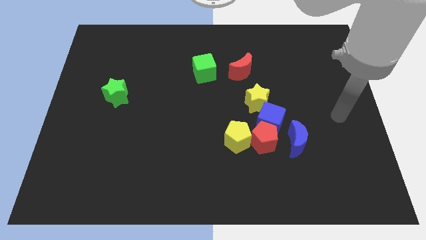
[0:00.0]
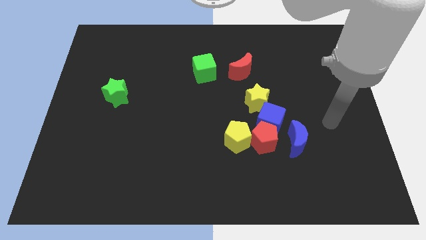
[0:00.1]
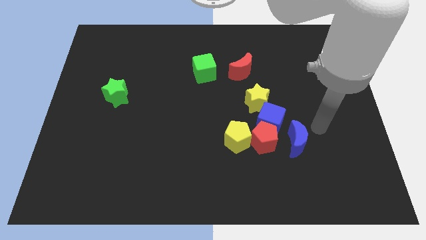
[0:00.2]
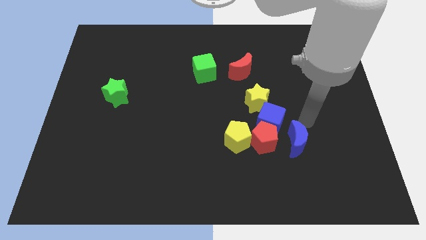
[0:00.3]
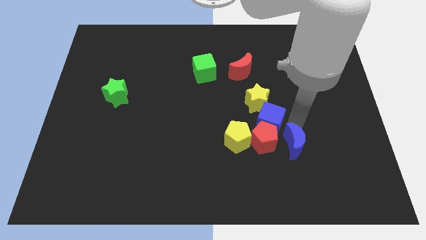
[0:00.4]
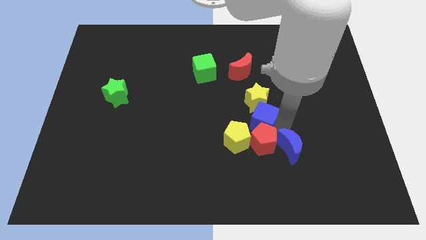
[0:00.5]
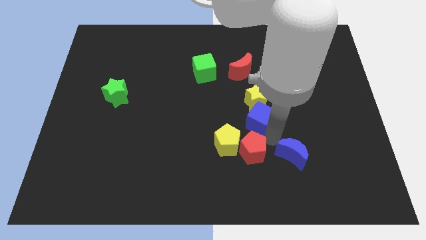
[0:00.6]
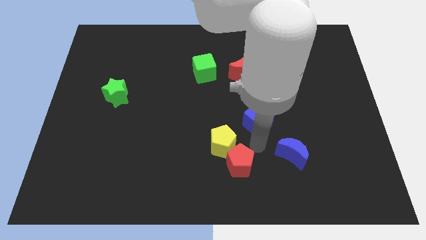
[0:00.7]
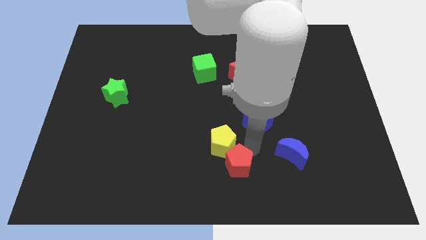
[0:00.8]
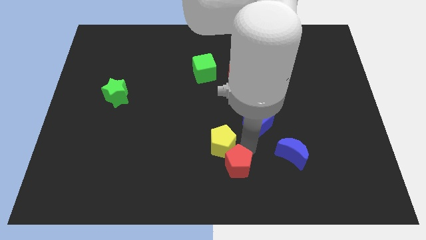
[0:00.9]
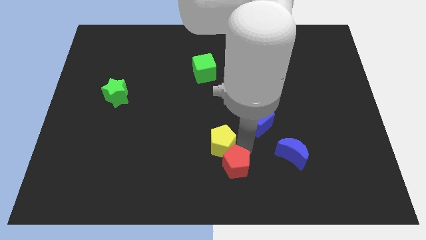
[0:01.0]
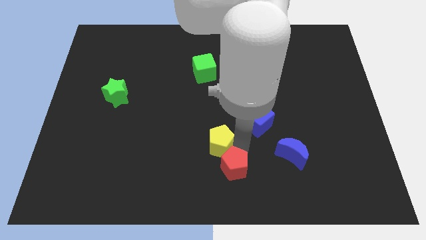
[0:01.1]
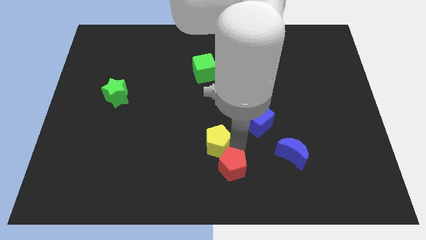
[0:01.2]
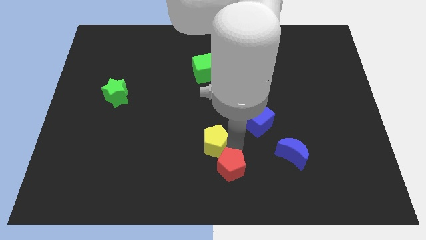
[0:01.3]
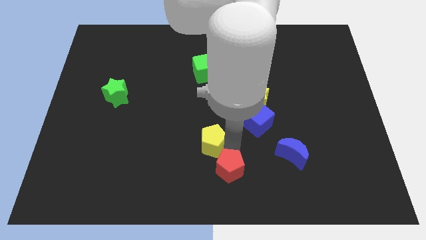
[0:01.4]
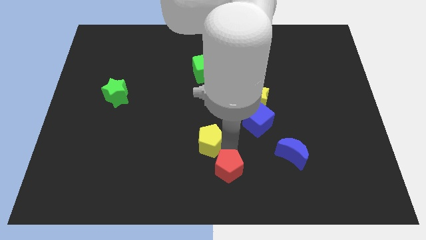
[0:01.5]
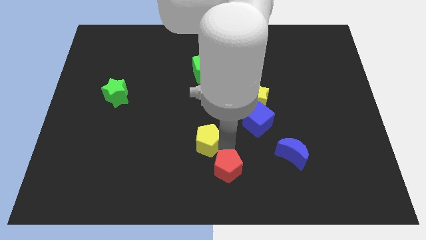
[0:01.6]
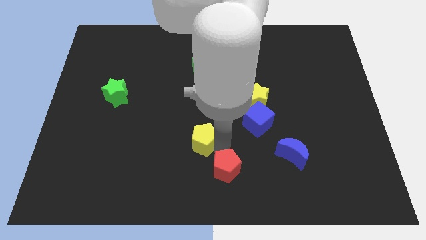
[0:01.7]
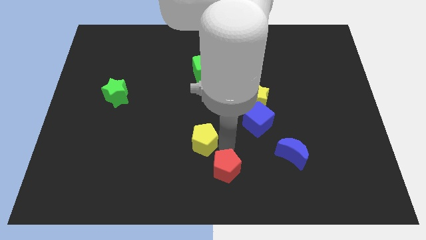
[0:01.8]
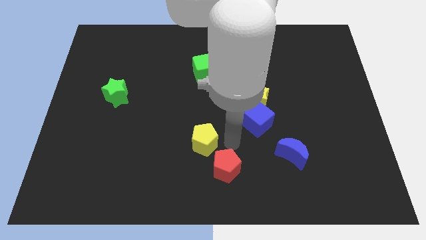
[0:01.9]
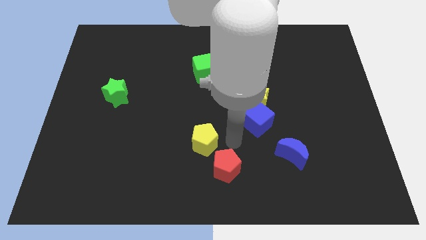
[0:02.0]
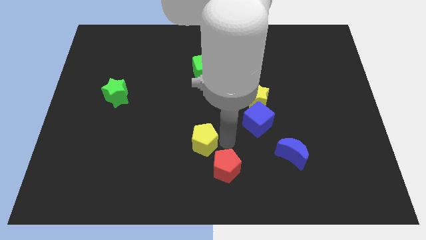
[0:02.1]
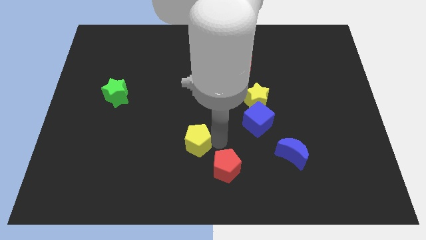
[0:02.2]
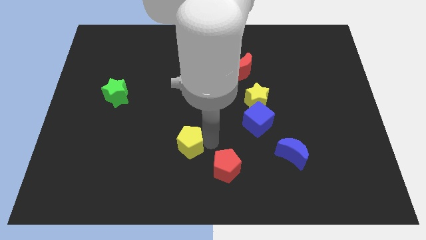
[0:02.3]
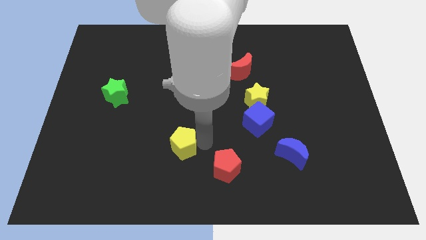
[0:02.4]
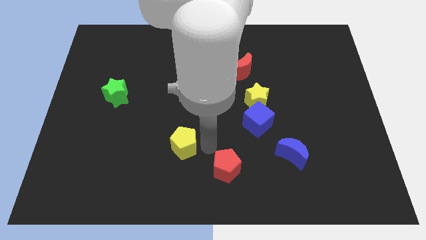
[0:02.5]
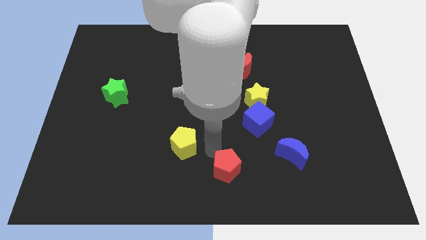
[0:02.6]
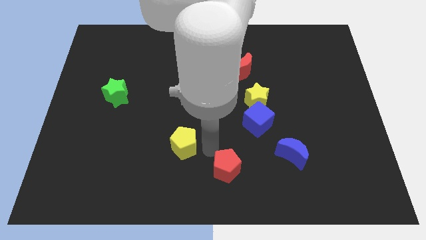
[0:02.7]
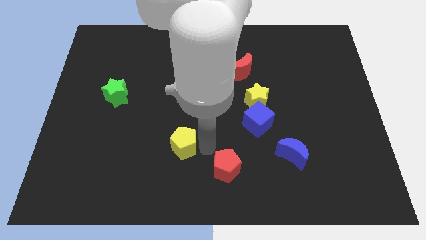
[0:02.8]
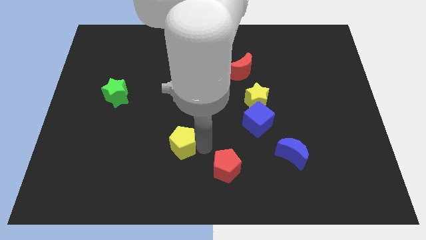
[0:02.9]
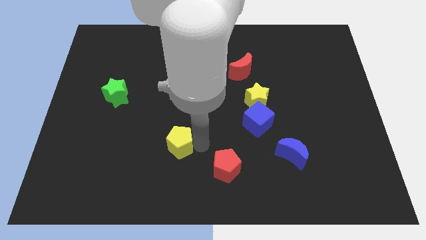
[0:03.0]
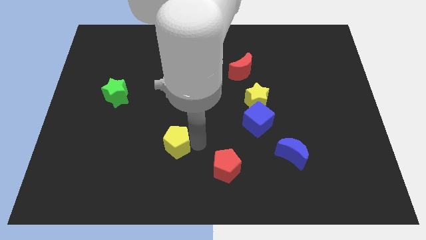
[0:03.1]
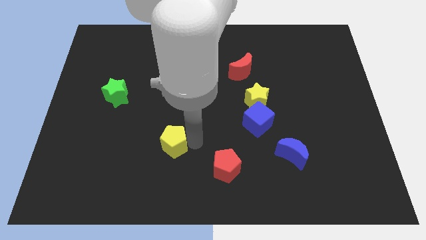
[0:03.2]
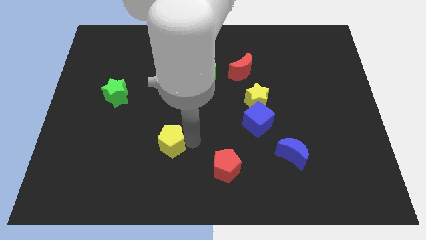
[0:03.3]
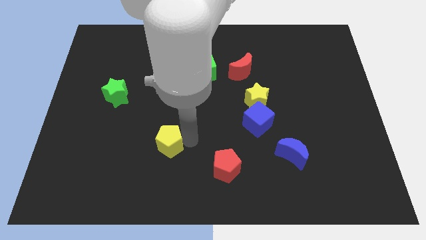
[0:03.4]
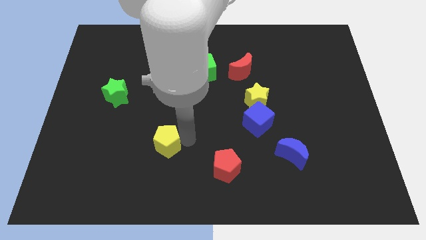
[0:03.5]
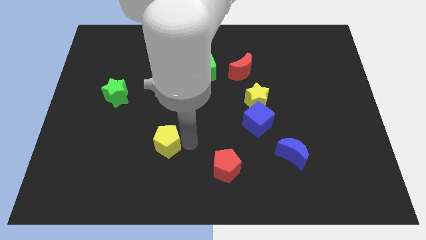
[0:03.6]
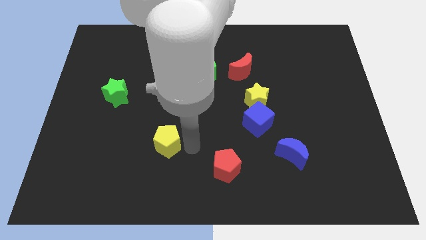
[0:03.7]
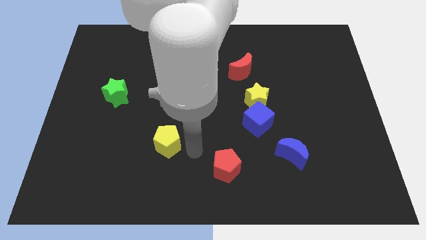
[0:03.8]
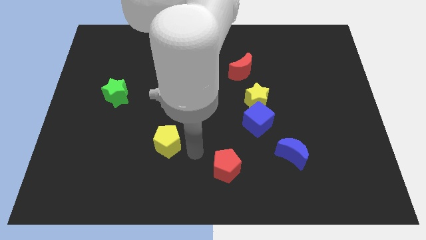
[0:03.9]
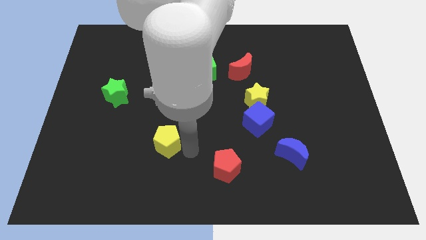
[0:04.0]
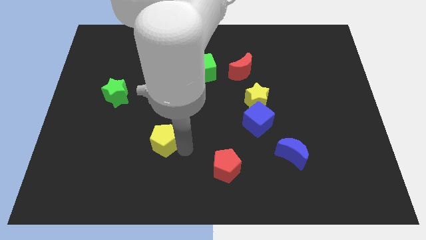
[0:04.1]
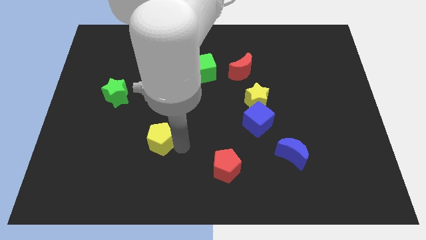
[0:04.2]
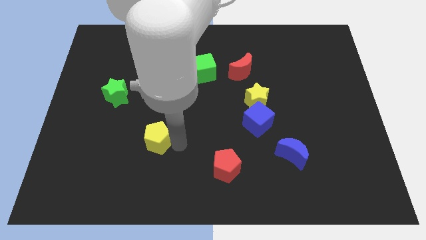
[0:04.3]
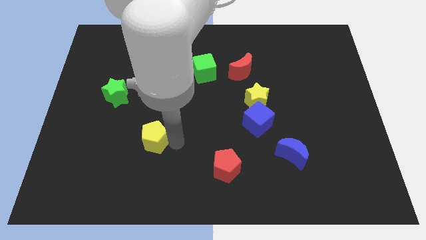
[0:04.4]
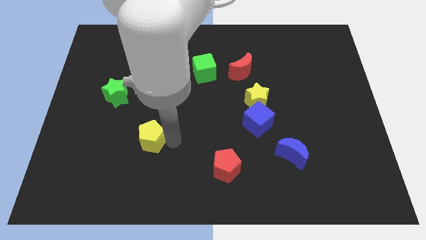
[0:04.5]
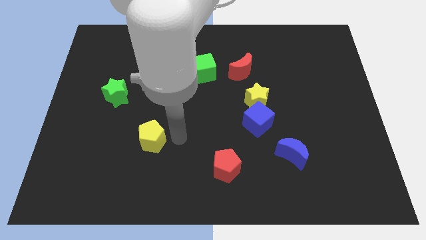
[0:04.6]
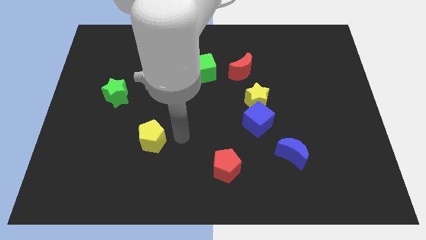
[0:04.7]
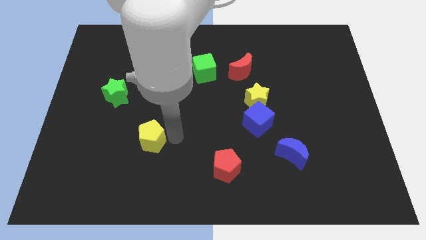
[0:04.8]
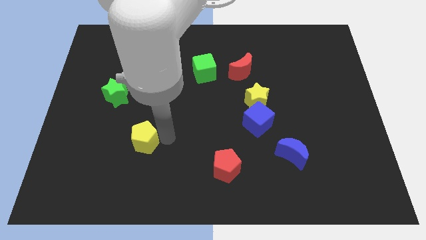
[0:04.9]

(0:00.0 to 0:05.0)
move the yellow pentagon left

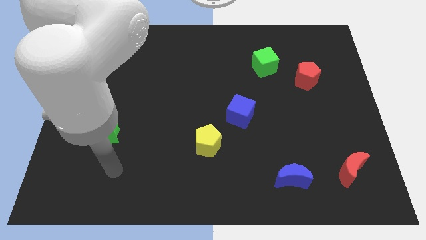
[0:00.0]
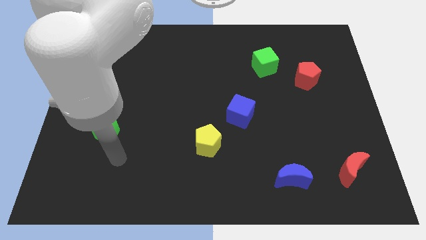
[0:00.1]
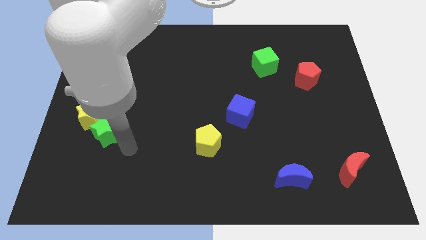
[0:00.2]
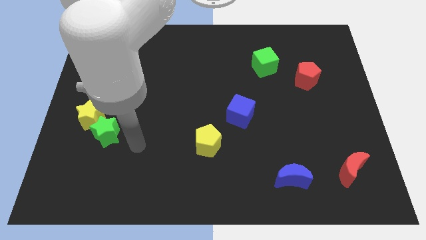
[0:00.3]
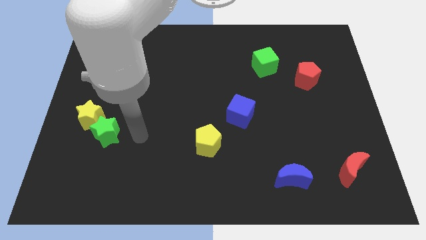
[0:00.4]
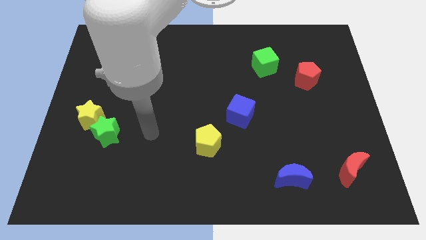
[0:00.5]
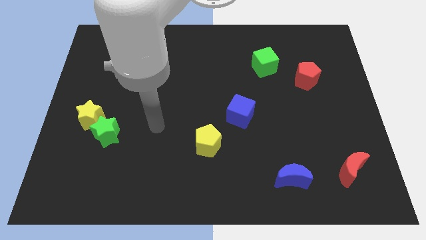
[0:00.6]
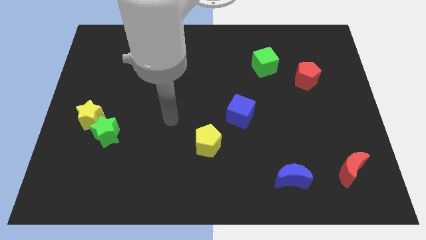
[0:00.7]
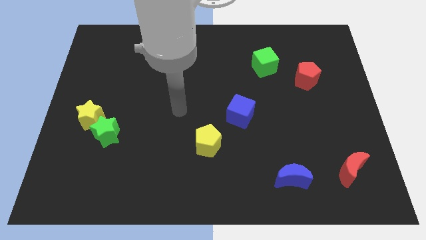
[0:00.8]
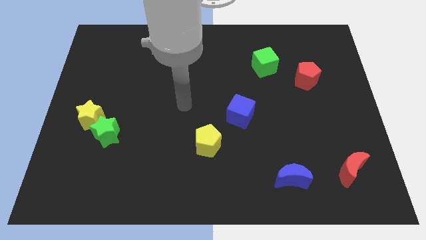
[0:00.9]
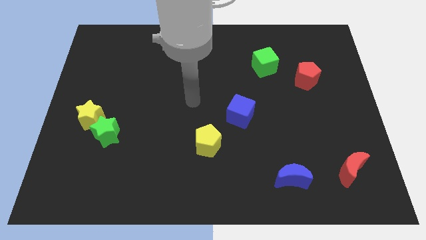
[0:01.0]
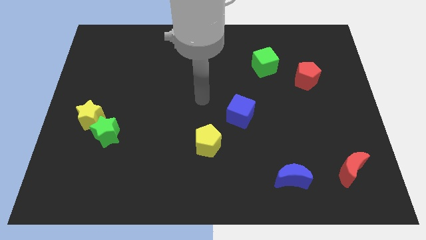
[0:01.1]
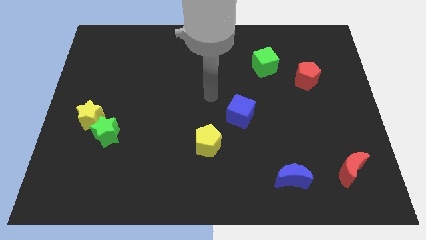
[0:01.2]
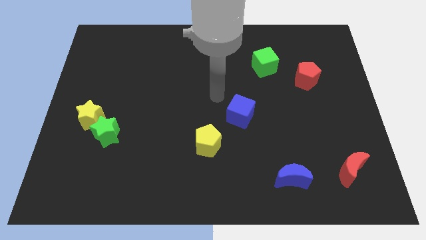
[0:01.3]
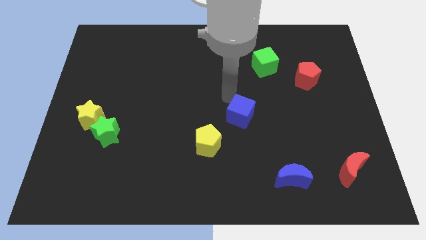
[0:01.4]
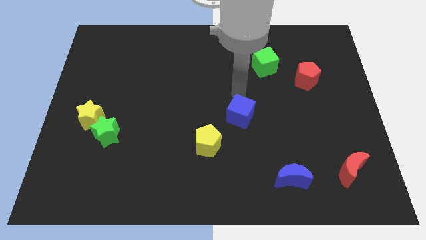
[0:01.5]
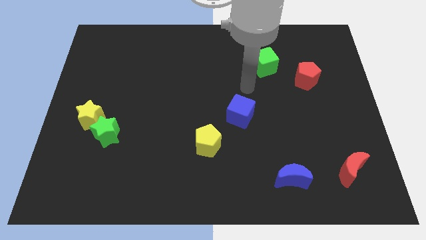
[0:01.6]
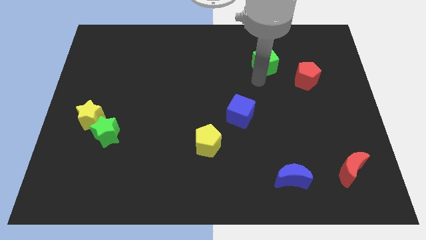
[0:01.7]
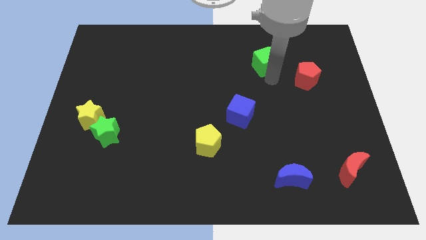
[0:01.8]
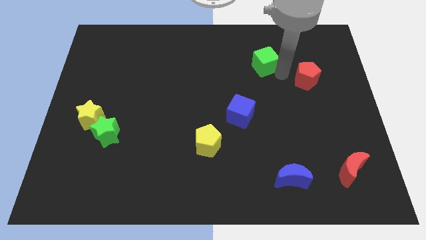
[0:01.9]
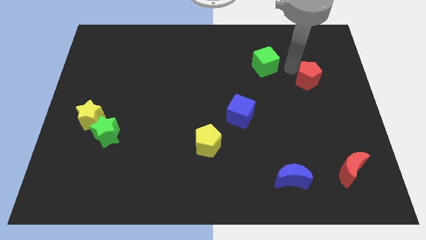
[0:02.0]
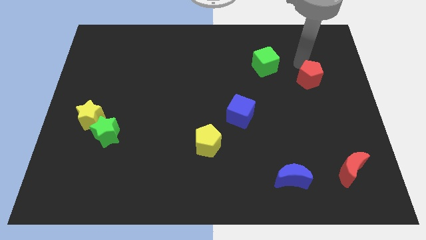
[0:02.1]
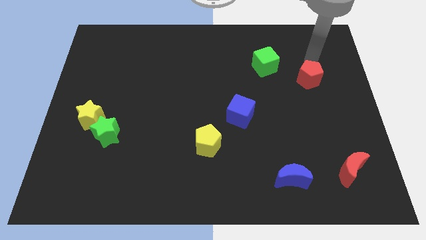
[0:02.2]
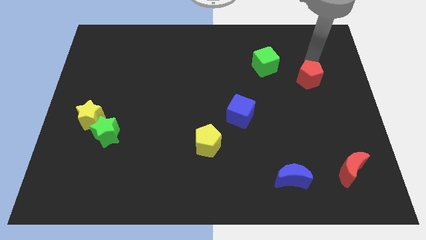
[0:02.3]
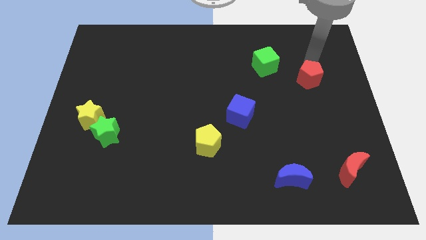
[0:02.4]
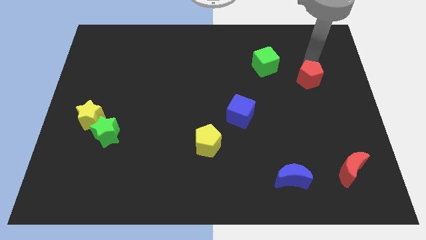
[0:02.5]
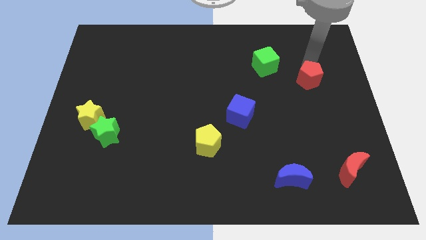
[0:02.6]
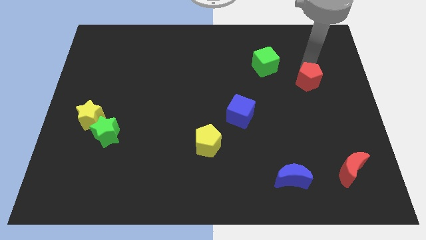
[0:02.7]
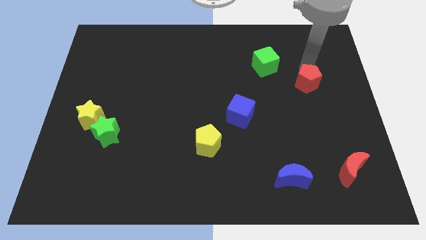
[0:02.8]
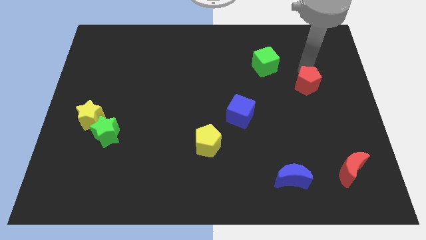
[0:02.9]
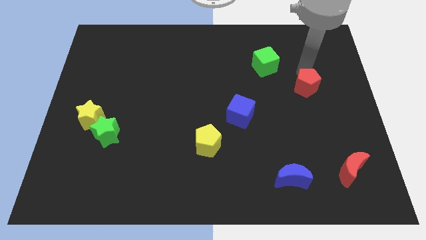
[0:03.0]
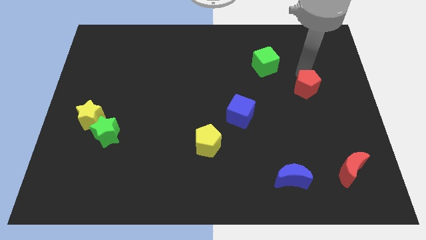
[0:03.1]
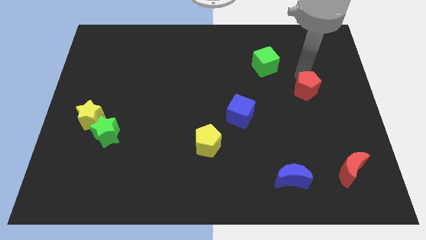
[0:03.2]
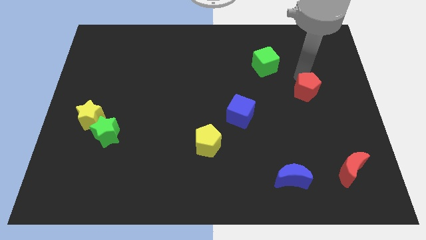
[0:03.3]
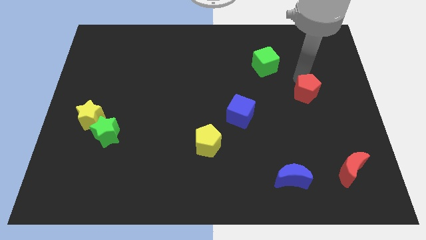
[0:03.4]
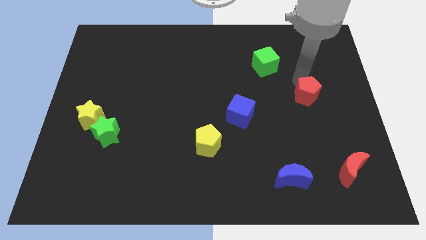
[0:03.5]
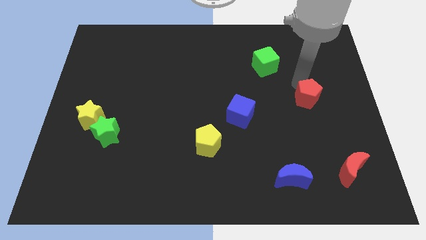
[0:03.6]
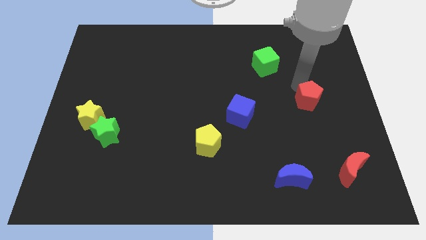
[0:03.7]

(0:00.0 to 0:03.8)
slide the red pentagon down slightly
